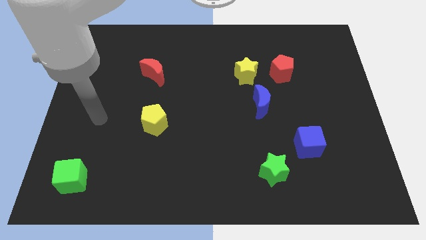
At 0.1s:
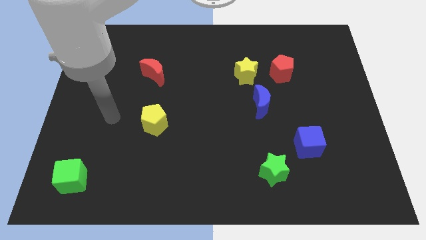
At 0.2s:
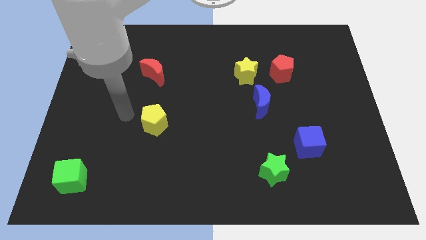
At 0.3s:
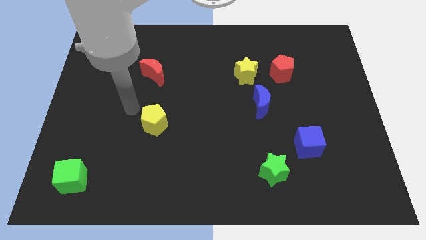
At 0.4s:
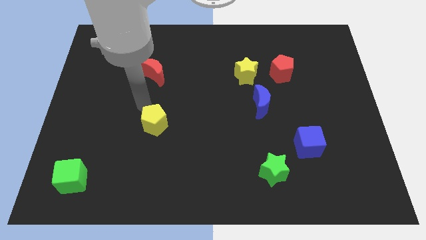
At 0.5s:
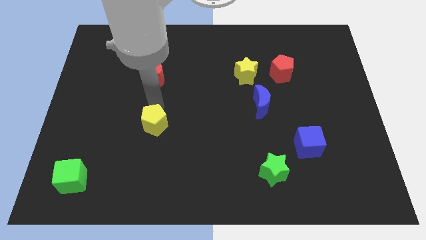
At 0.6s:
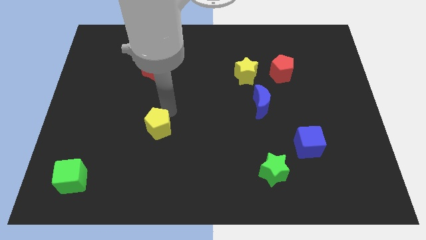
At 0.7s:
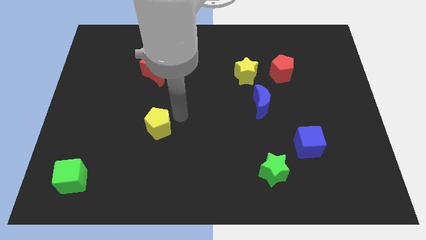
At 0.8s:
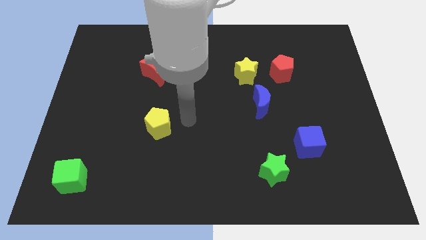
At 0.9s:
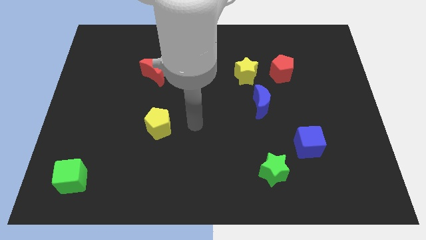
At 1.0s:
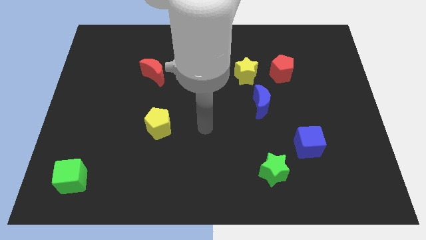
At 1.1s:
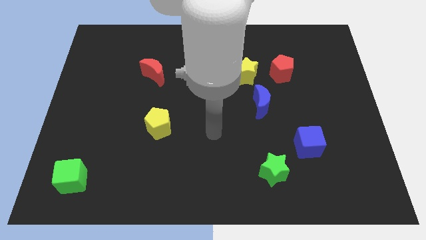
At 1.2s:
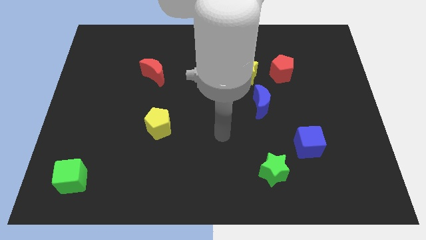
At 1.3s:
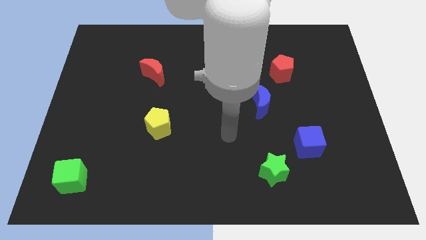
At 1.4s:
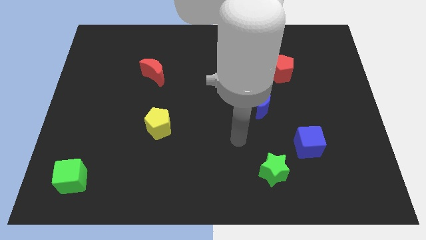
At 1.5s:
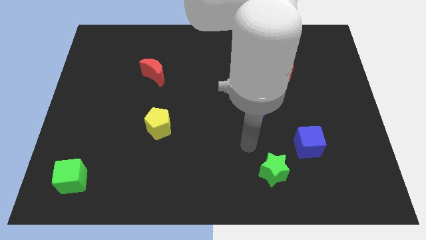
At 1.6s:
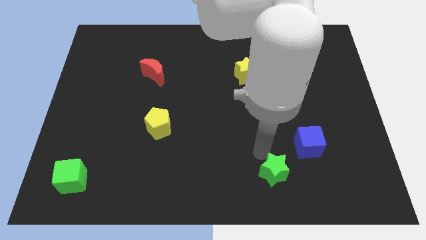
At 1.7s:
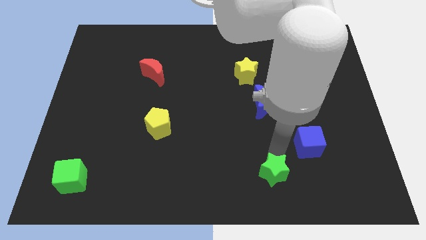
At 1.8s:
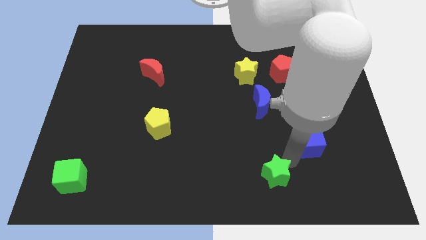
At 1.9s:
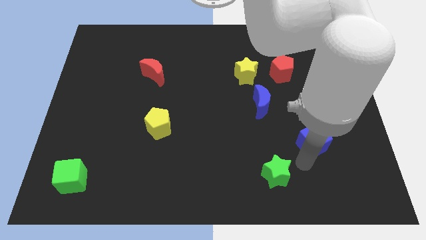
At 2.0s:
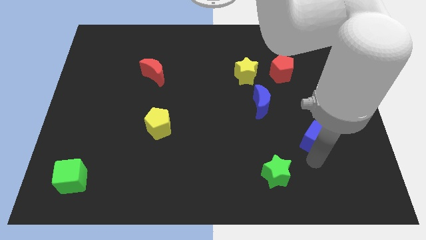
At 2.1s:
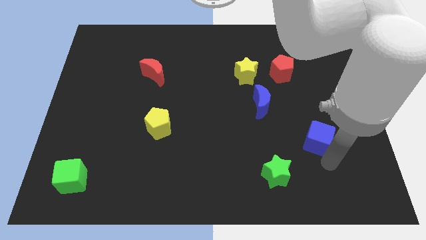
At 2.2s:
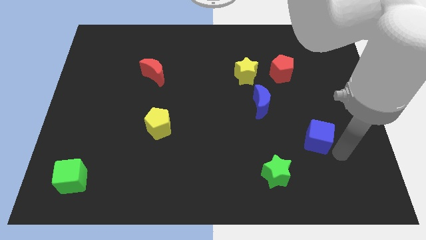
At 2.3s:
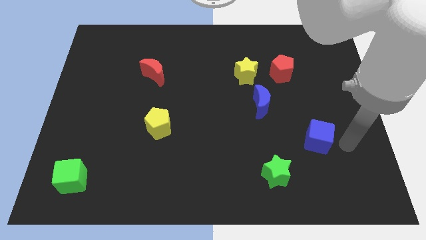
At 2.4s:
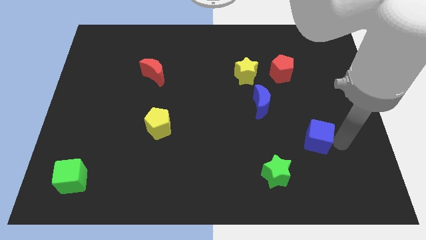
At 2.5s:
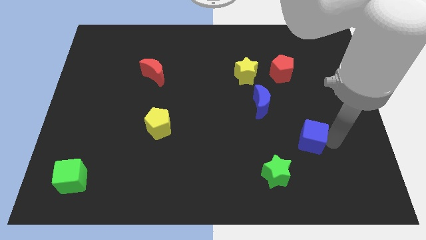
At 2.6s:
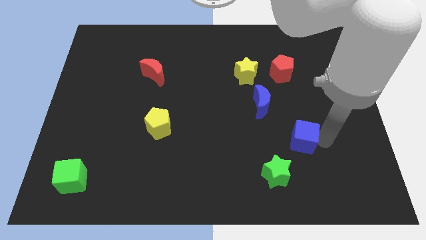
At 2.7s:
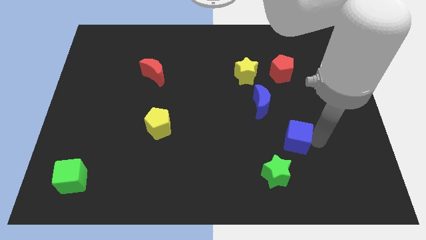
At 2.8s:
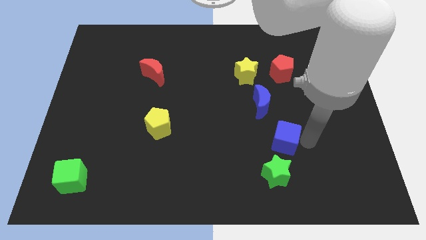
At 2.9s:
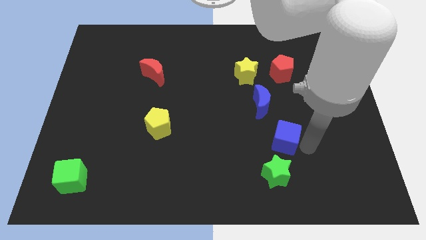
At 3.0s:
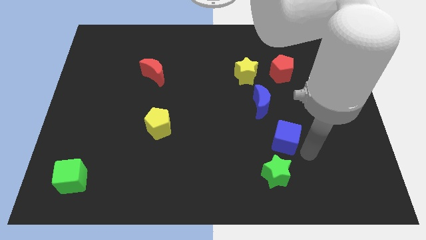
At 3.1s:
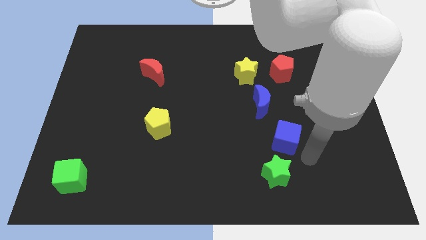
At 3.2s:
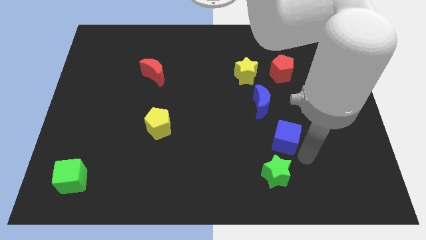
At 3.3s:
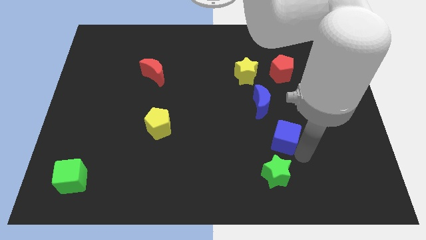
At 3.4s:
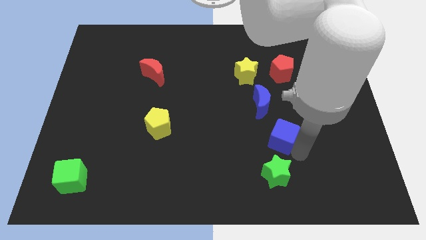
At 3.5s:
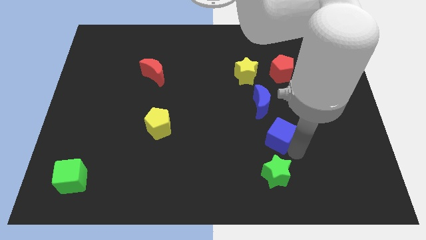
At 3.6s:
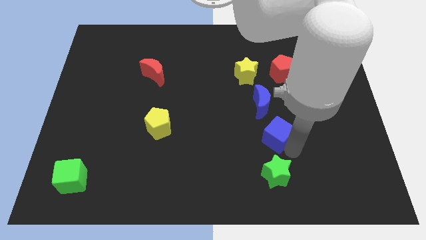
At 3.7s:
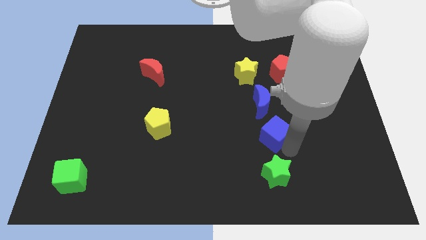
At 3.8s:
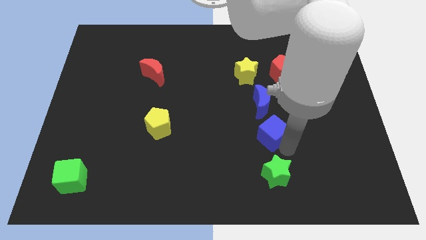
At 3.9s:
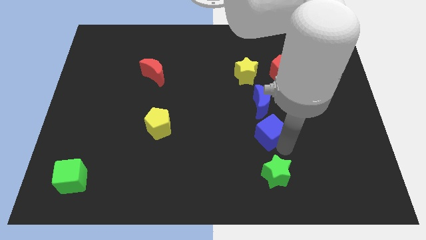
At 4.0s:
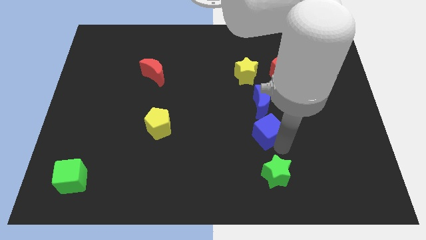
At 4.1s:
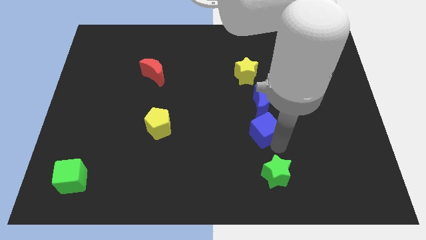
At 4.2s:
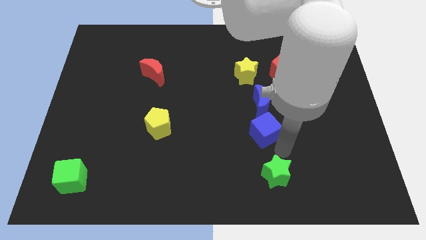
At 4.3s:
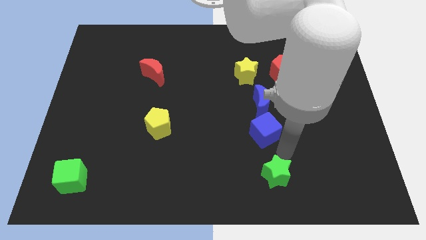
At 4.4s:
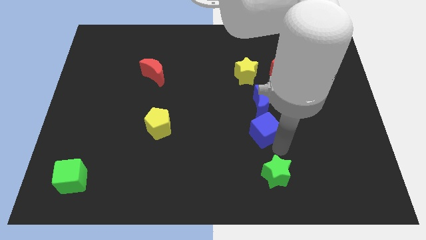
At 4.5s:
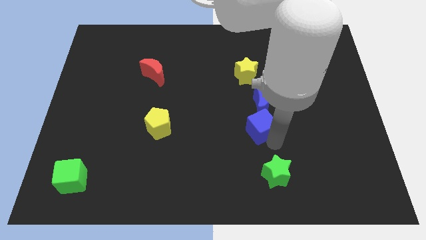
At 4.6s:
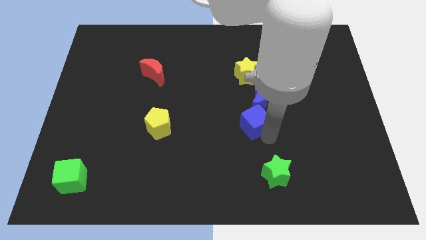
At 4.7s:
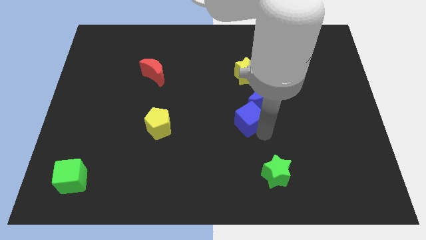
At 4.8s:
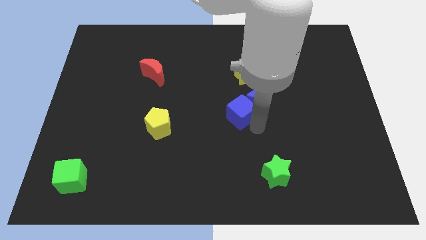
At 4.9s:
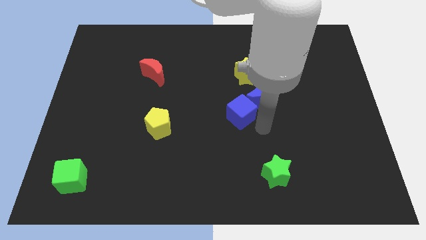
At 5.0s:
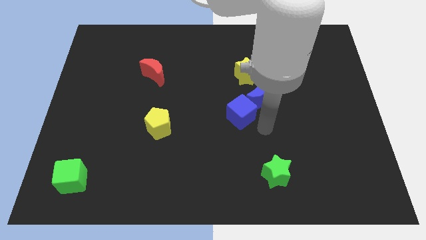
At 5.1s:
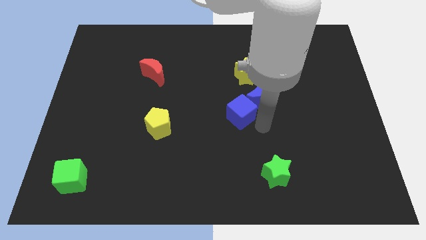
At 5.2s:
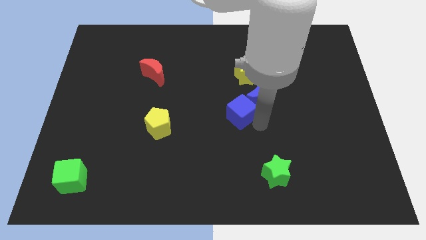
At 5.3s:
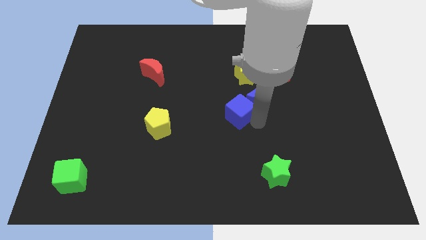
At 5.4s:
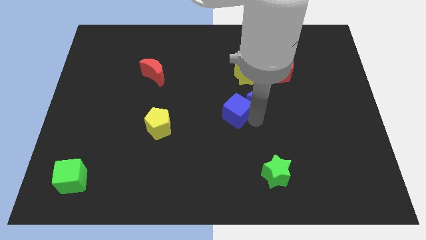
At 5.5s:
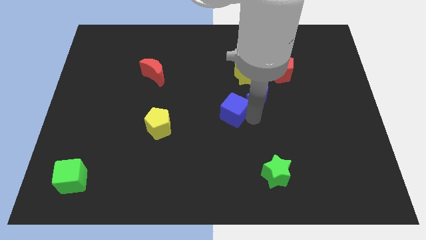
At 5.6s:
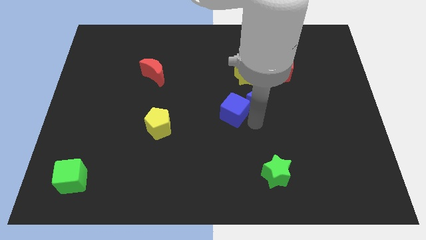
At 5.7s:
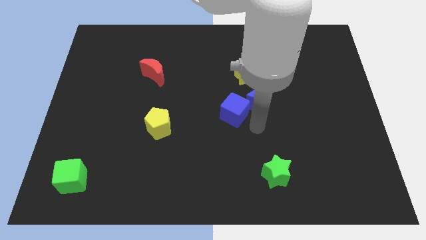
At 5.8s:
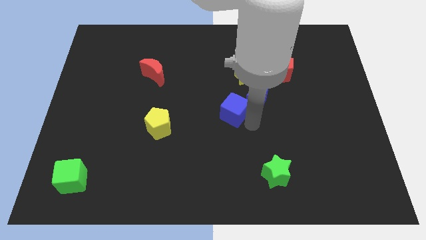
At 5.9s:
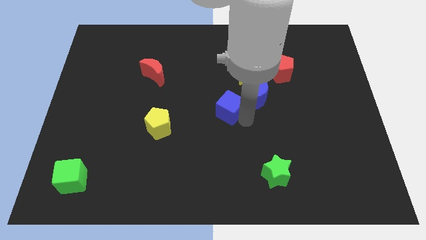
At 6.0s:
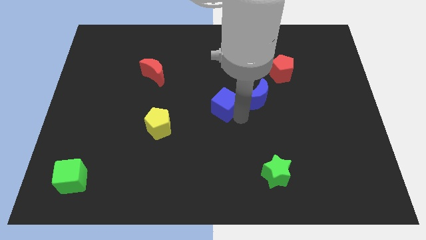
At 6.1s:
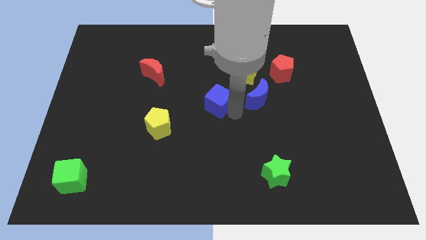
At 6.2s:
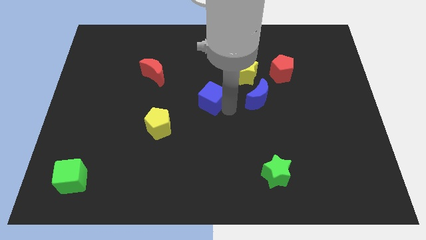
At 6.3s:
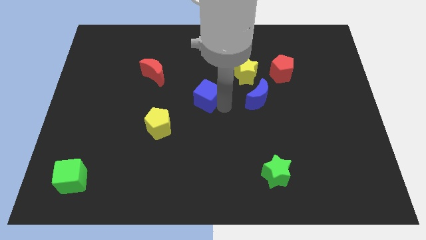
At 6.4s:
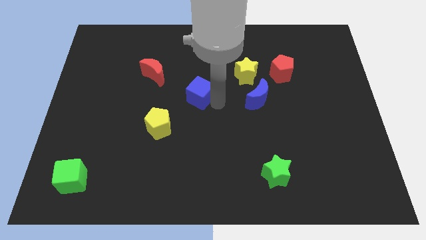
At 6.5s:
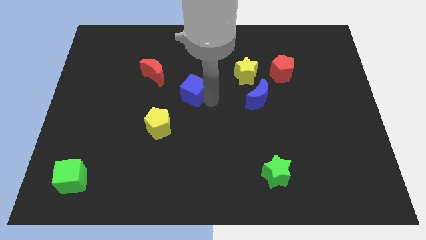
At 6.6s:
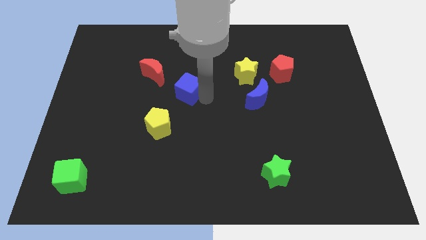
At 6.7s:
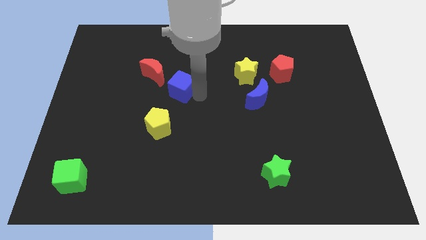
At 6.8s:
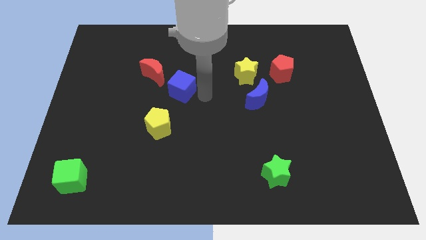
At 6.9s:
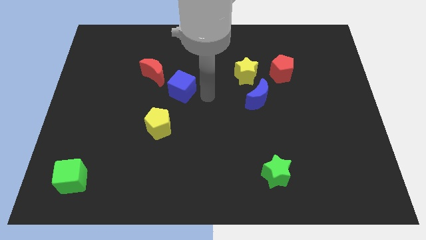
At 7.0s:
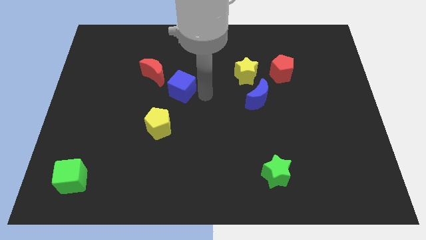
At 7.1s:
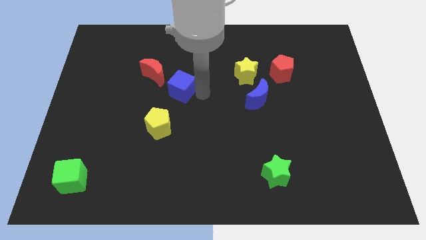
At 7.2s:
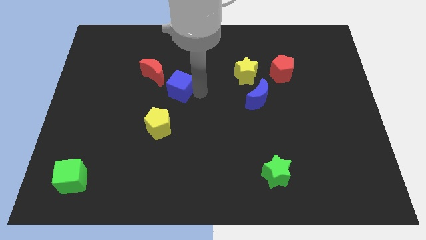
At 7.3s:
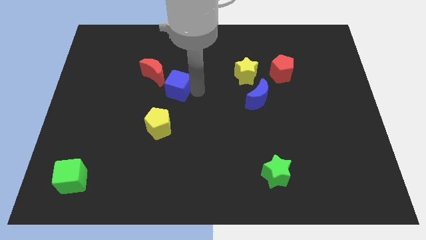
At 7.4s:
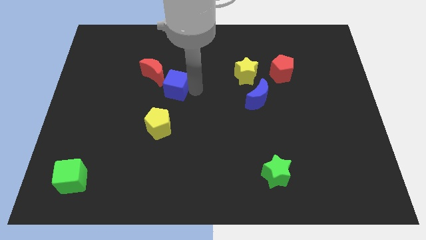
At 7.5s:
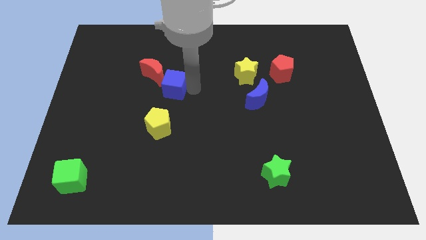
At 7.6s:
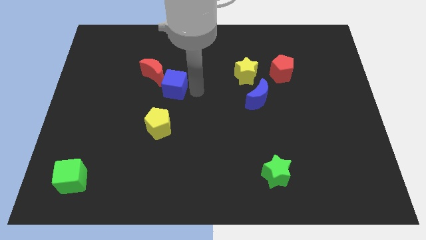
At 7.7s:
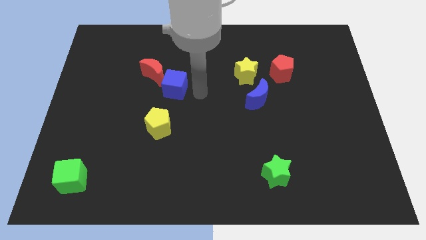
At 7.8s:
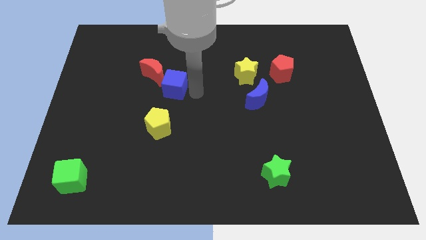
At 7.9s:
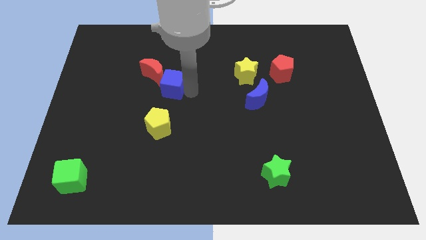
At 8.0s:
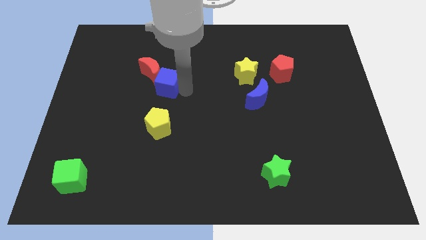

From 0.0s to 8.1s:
slide the blue cube close to the red moon

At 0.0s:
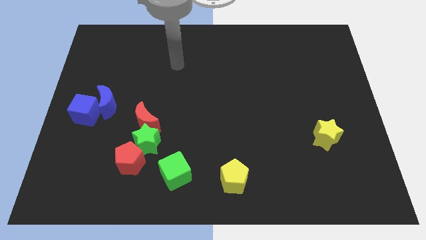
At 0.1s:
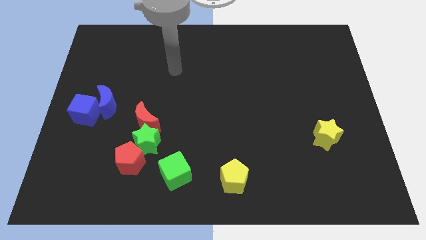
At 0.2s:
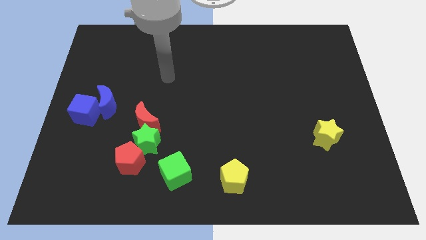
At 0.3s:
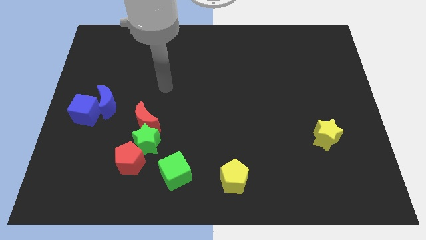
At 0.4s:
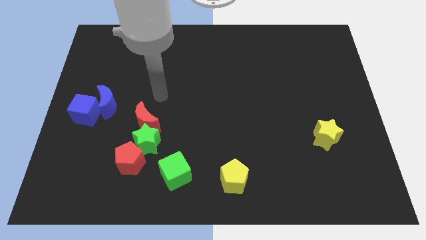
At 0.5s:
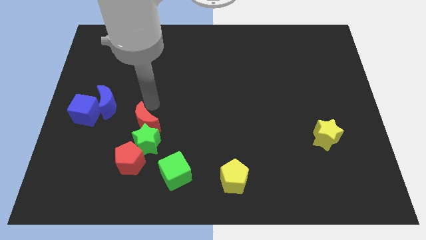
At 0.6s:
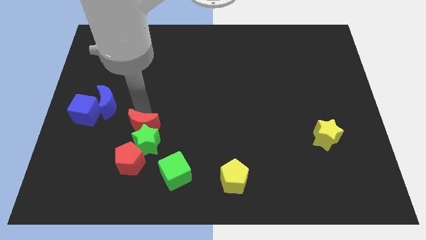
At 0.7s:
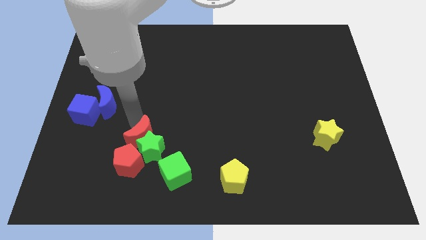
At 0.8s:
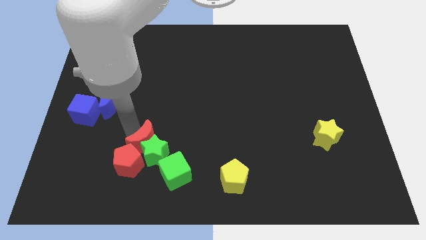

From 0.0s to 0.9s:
slide the green star to the green cube
